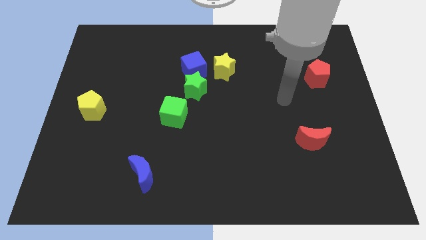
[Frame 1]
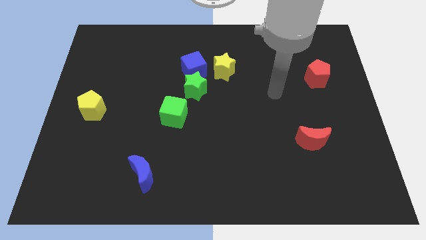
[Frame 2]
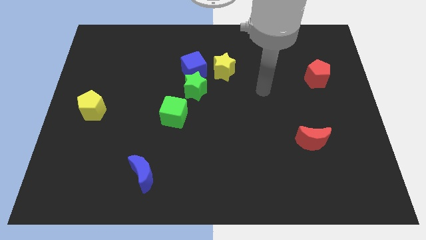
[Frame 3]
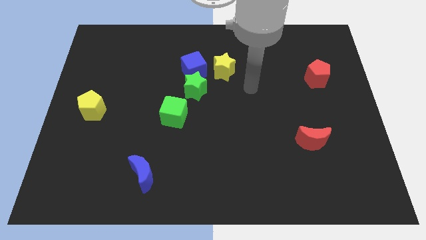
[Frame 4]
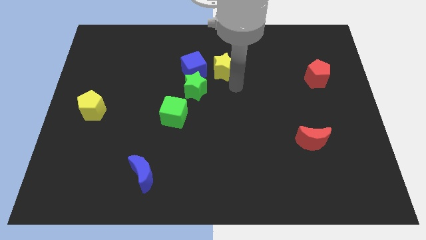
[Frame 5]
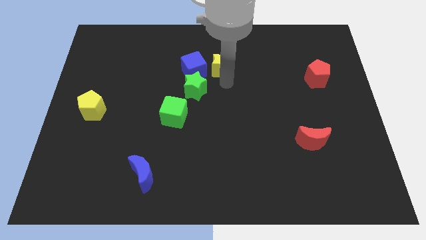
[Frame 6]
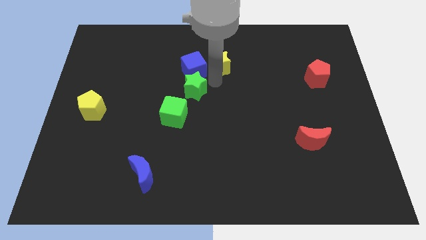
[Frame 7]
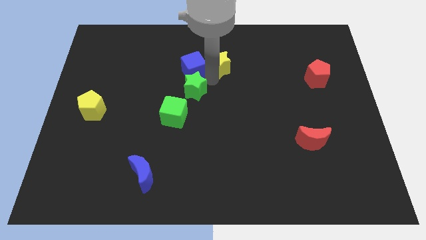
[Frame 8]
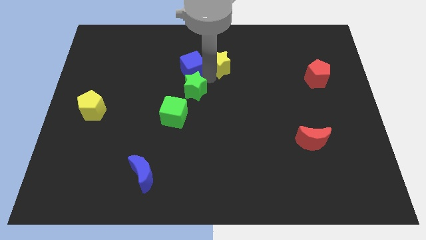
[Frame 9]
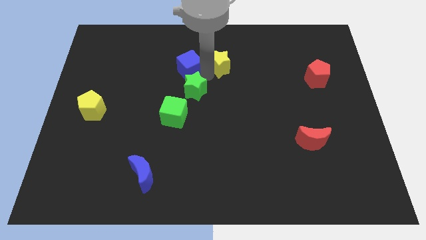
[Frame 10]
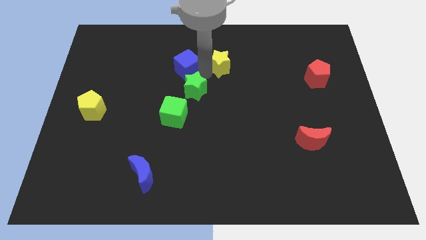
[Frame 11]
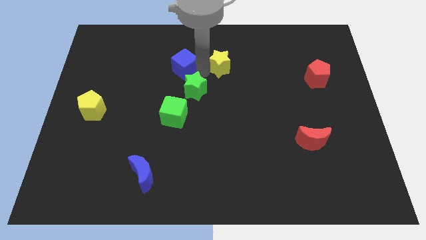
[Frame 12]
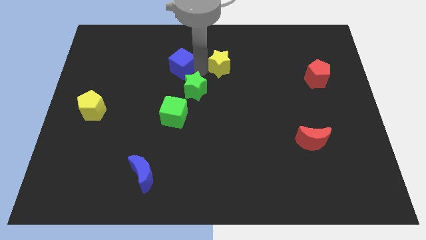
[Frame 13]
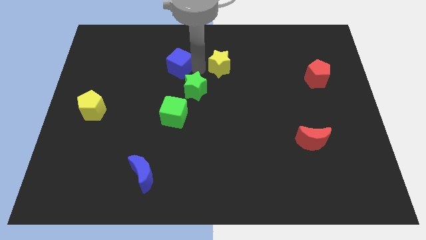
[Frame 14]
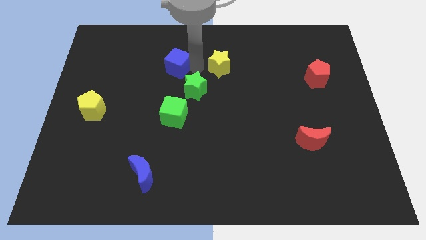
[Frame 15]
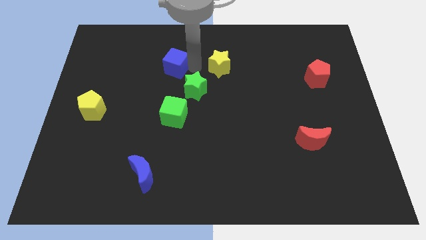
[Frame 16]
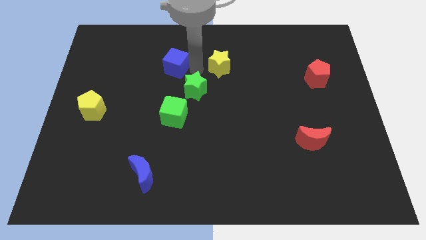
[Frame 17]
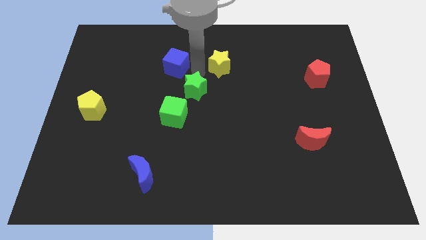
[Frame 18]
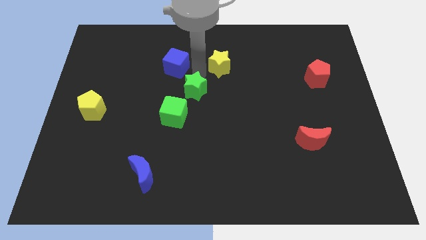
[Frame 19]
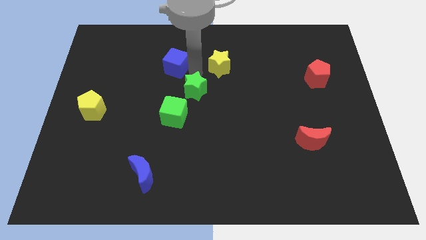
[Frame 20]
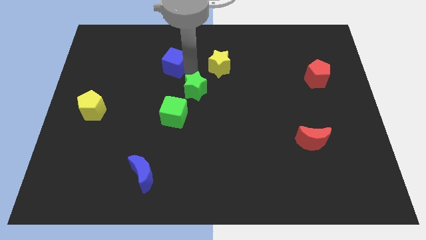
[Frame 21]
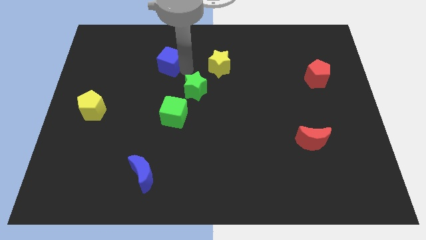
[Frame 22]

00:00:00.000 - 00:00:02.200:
pull the blue cube apart from the green star and yellow star

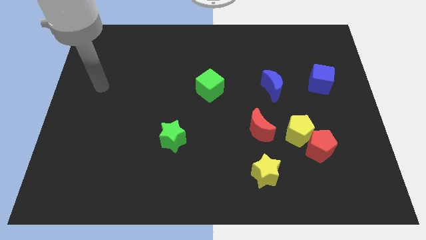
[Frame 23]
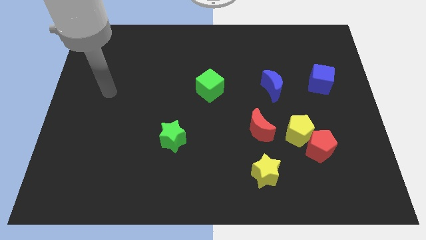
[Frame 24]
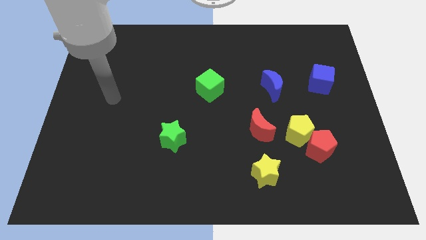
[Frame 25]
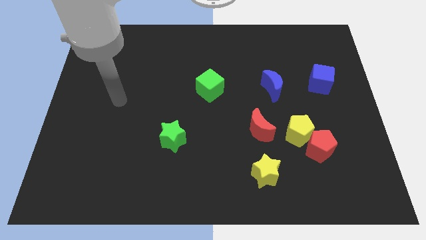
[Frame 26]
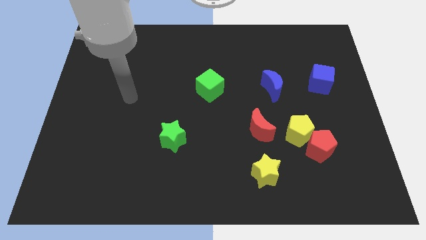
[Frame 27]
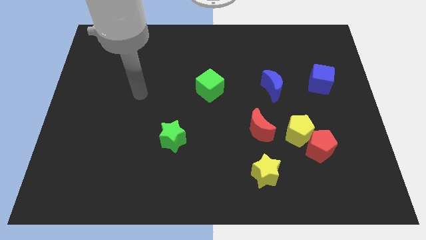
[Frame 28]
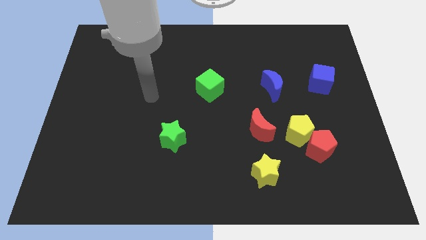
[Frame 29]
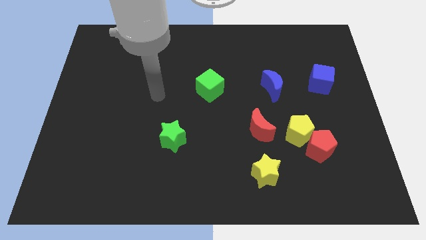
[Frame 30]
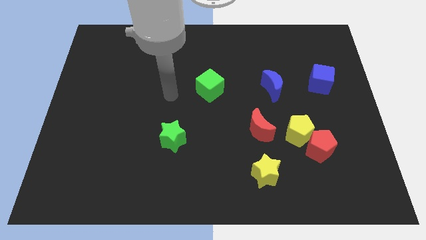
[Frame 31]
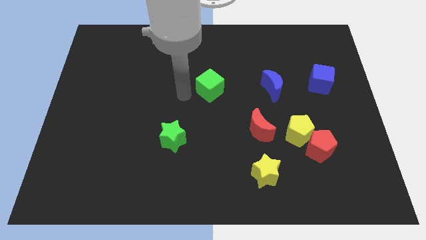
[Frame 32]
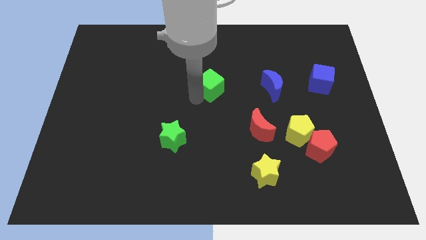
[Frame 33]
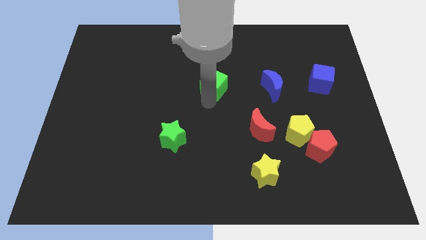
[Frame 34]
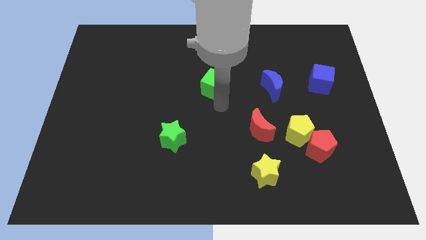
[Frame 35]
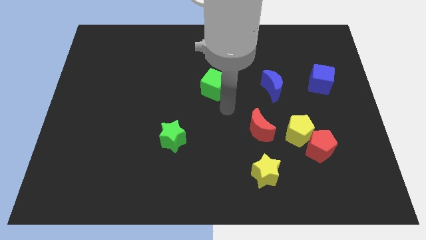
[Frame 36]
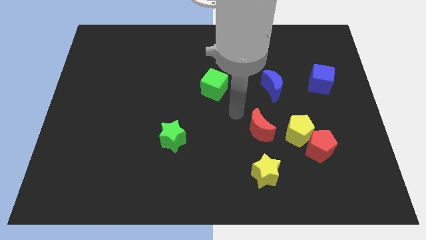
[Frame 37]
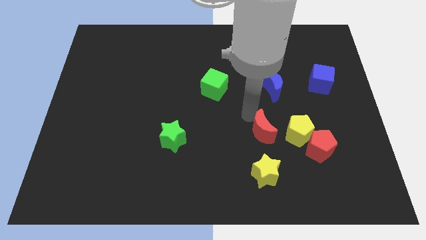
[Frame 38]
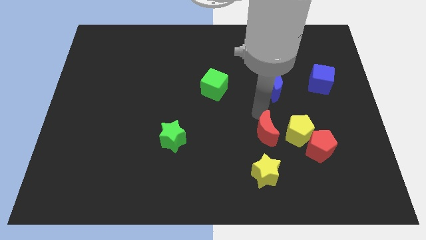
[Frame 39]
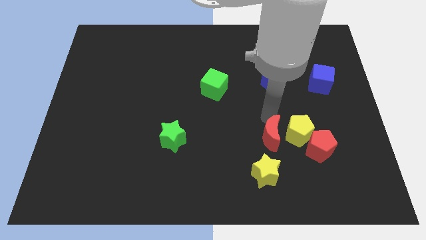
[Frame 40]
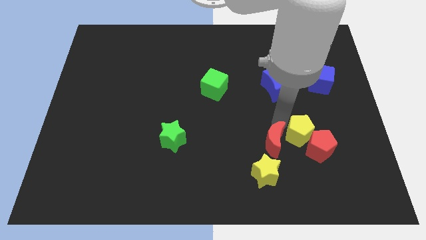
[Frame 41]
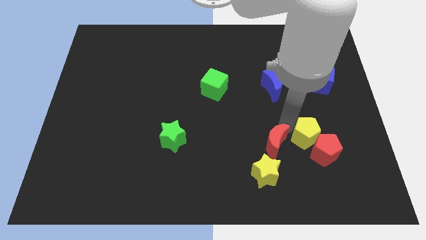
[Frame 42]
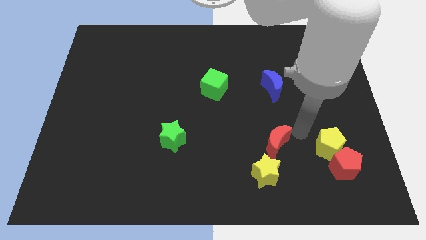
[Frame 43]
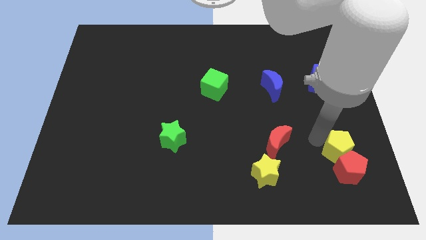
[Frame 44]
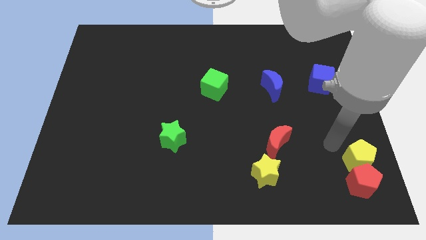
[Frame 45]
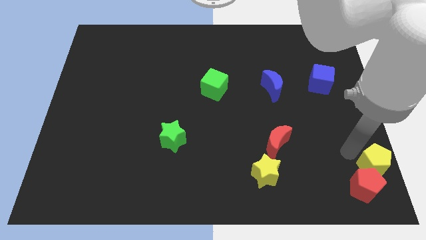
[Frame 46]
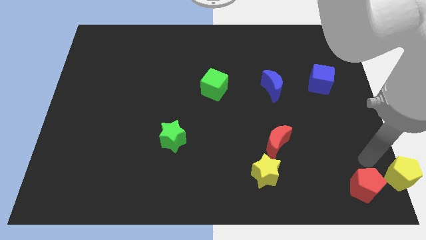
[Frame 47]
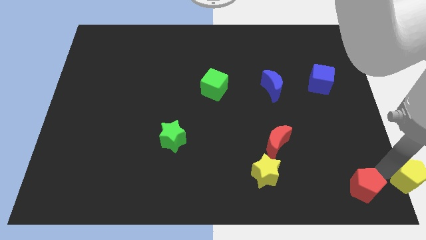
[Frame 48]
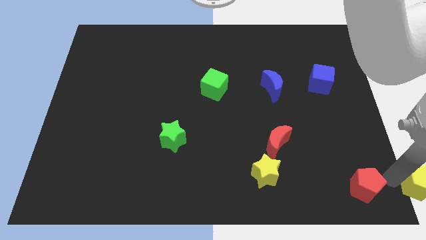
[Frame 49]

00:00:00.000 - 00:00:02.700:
pull the red pentagon apart from the yellow pentagon

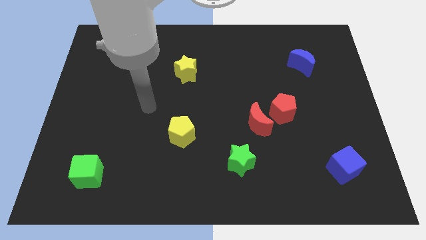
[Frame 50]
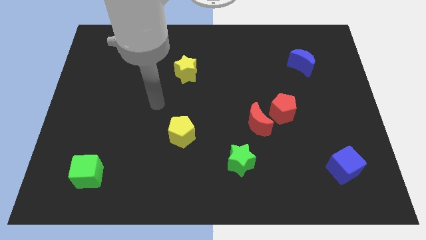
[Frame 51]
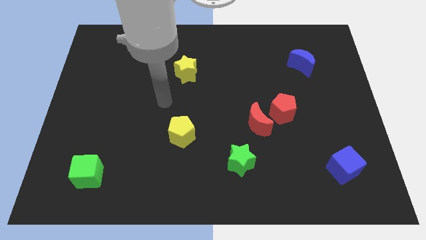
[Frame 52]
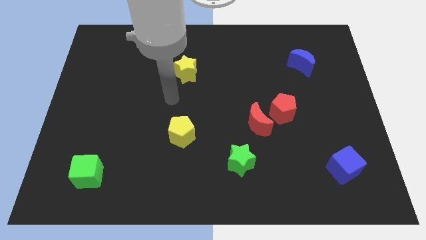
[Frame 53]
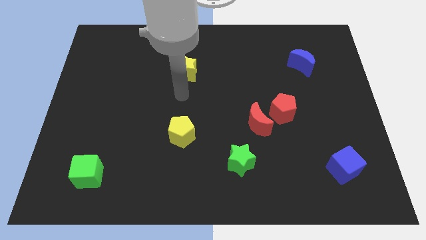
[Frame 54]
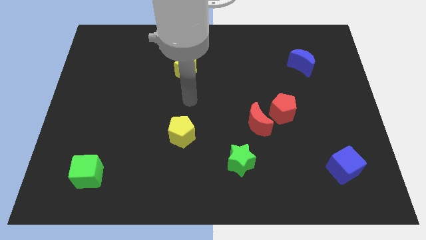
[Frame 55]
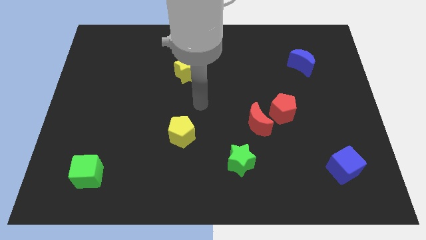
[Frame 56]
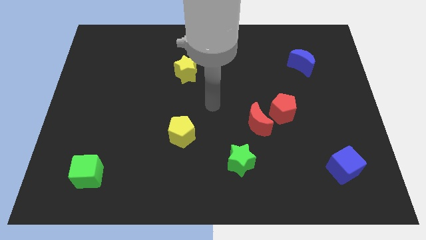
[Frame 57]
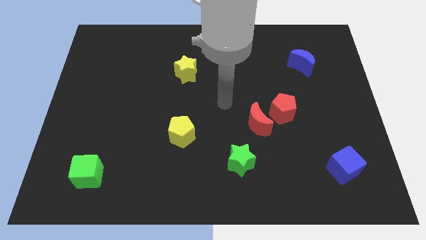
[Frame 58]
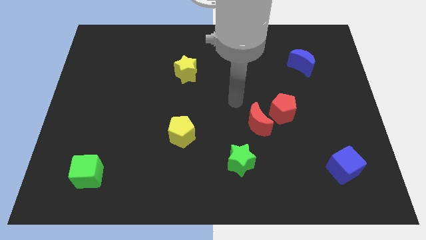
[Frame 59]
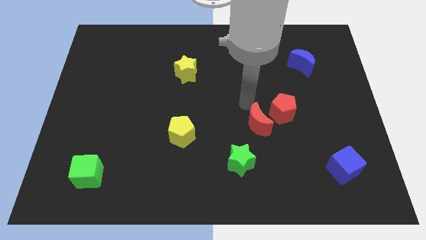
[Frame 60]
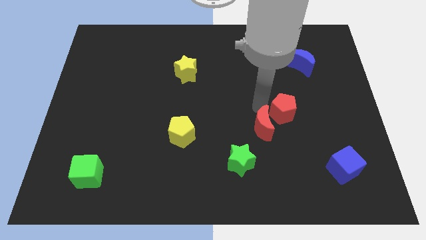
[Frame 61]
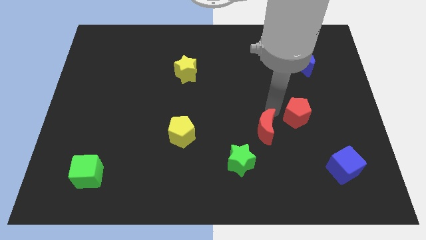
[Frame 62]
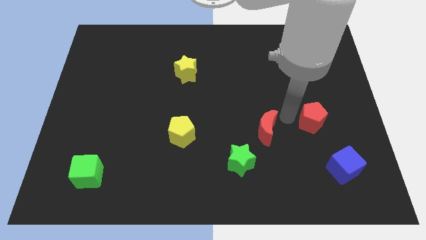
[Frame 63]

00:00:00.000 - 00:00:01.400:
move the red moon away from the red pentagon

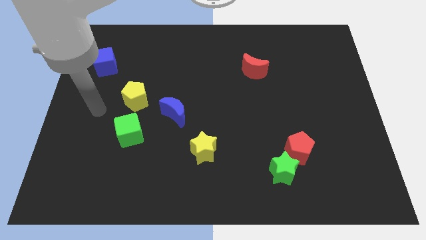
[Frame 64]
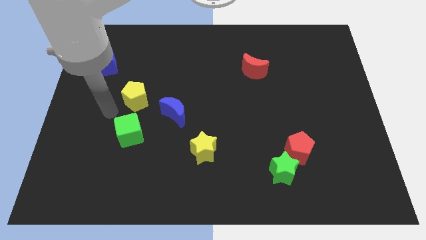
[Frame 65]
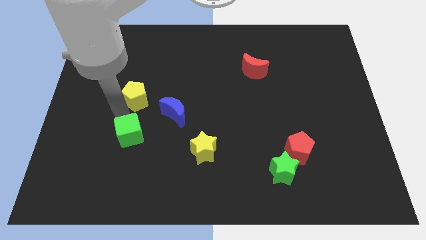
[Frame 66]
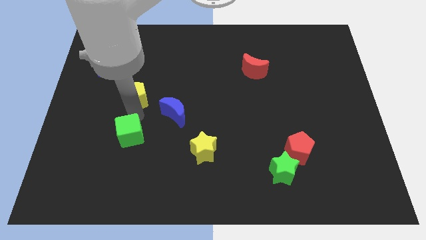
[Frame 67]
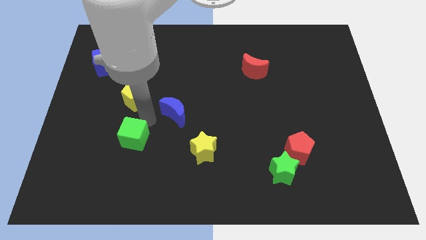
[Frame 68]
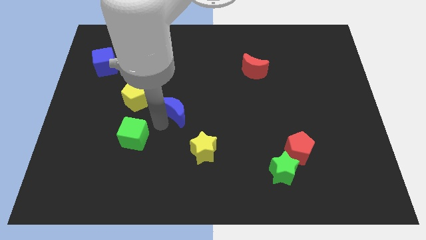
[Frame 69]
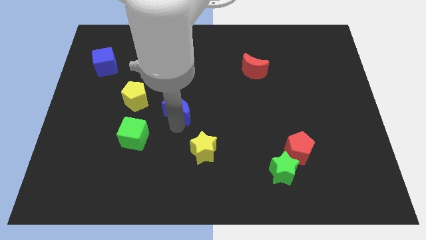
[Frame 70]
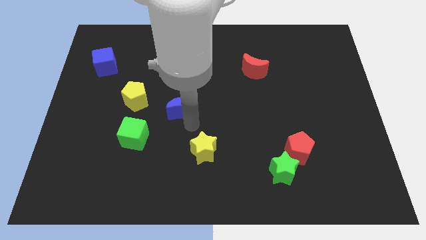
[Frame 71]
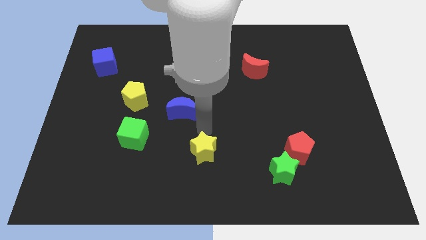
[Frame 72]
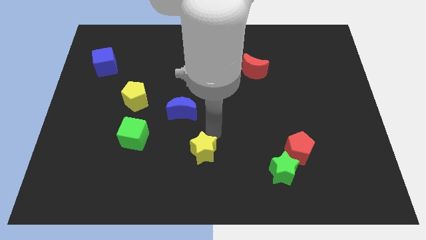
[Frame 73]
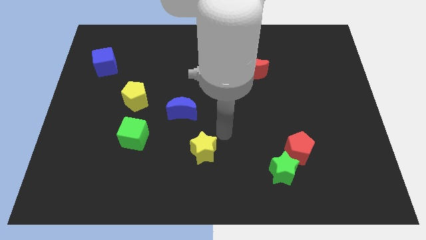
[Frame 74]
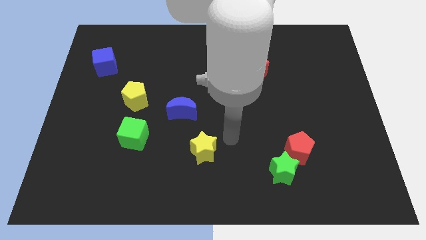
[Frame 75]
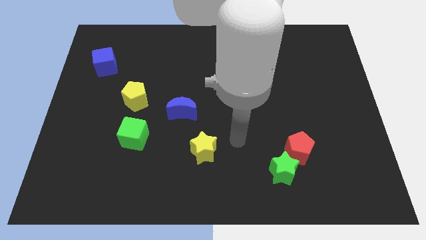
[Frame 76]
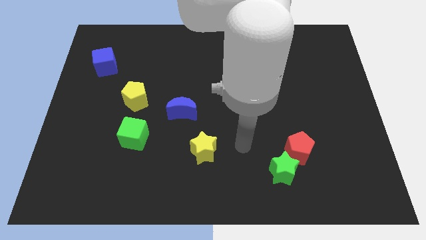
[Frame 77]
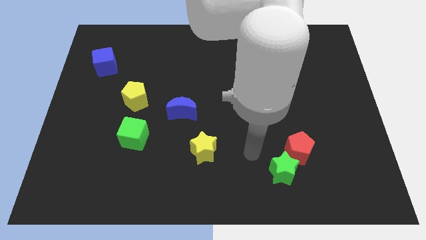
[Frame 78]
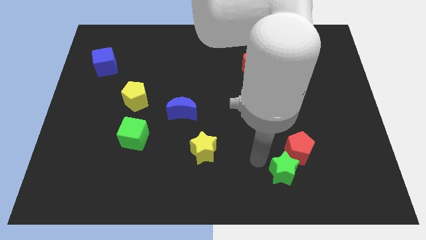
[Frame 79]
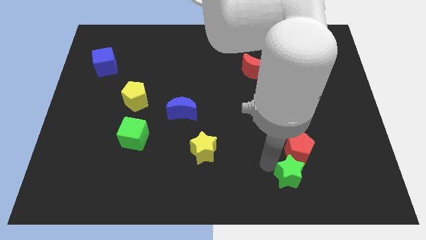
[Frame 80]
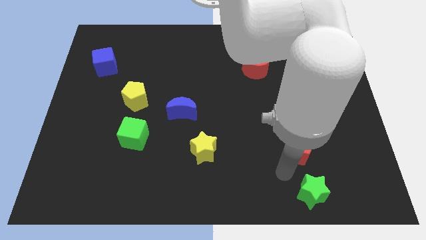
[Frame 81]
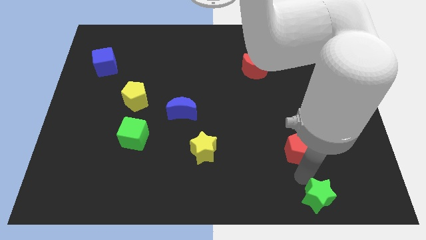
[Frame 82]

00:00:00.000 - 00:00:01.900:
separate the red pentagon from the green star

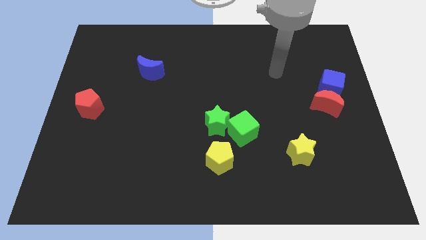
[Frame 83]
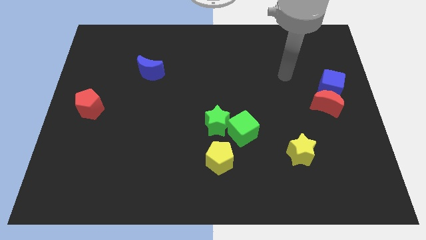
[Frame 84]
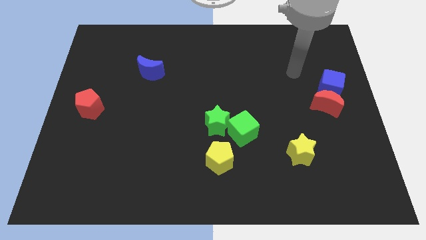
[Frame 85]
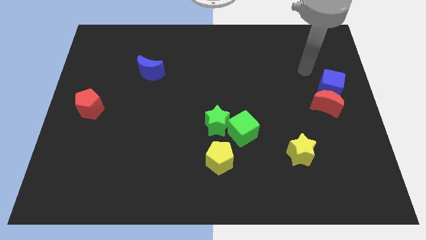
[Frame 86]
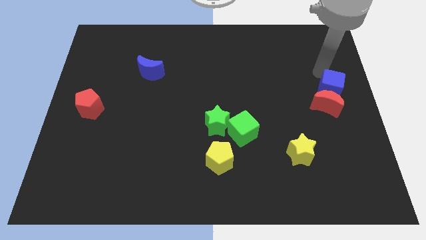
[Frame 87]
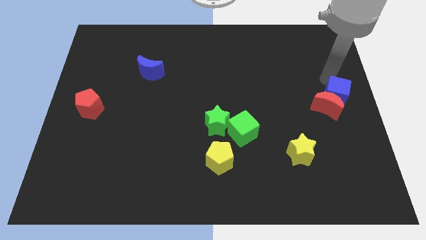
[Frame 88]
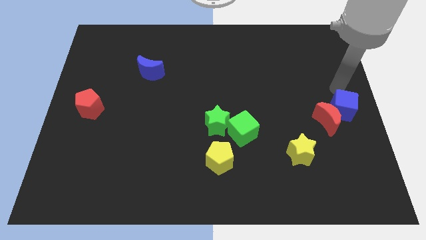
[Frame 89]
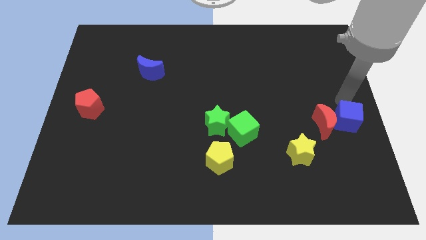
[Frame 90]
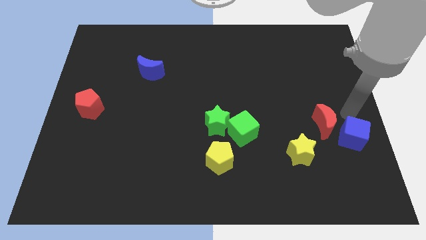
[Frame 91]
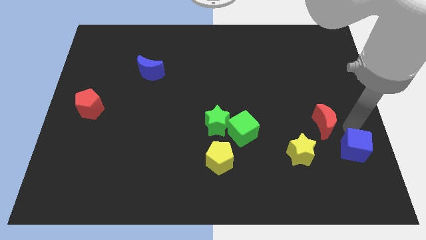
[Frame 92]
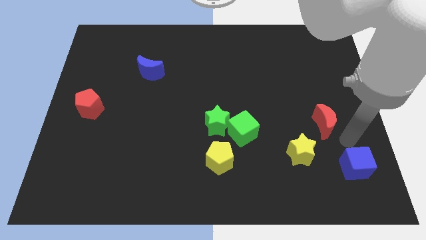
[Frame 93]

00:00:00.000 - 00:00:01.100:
separate the red moon from the blue cube

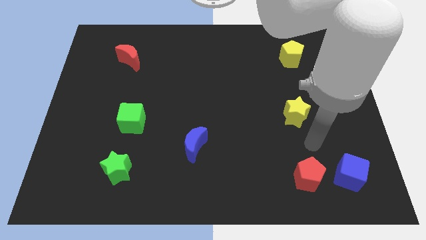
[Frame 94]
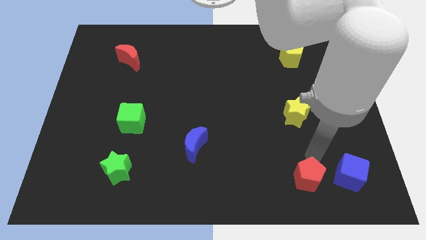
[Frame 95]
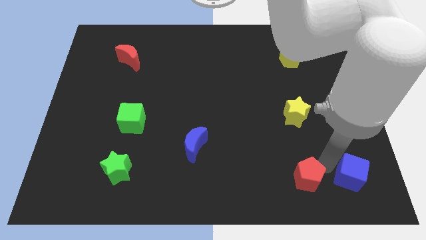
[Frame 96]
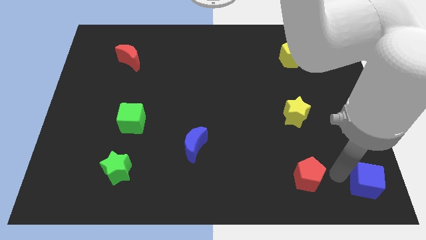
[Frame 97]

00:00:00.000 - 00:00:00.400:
separate the red pentagon from the blue cube
